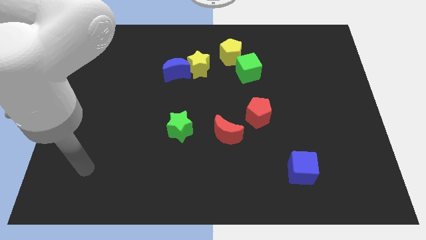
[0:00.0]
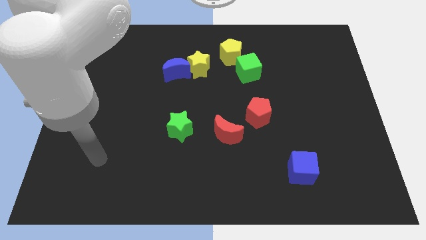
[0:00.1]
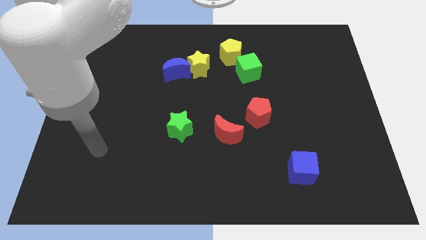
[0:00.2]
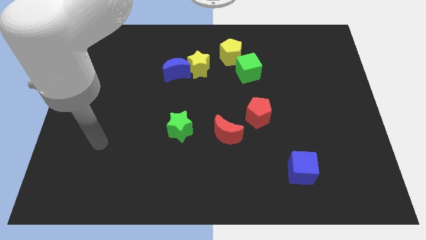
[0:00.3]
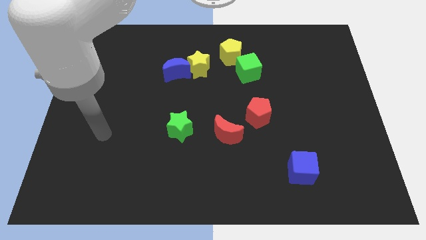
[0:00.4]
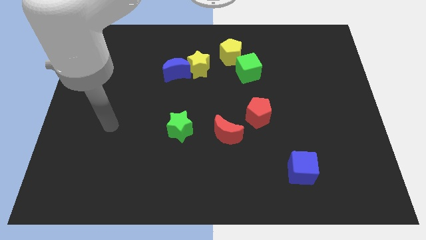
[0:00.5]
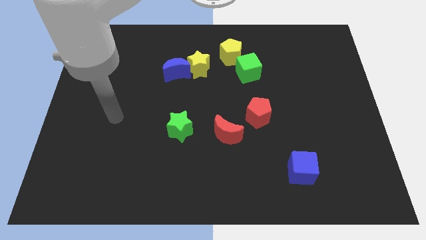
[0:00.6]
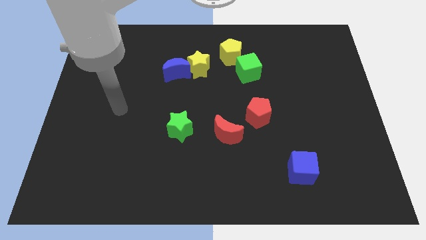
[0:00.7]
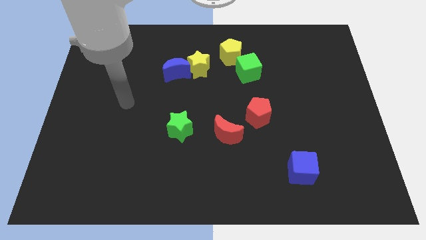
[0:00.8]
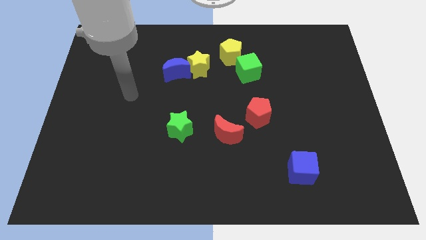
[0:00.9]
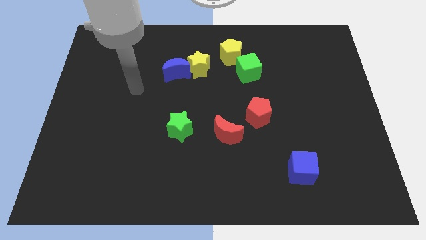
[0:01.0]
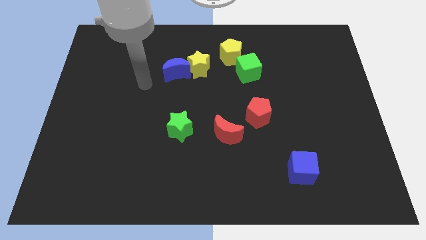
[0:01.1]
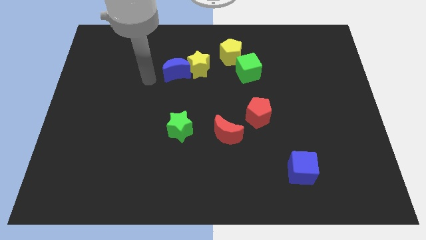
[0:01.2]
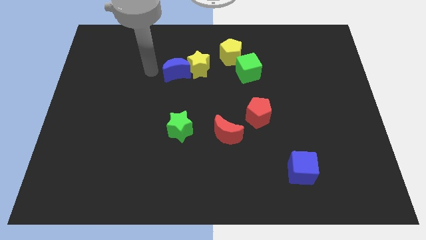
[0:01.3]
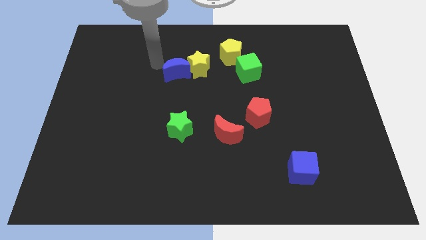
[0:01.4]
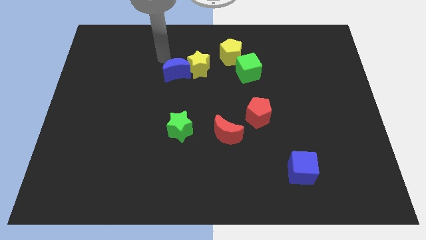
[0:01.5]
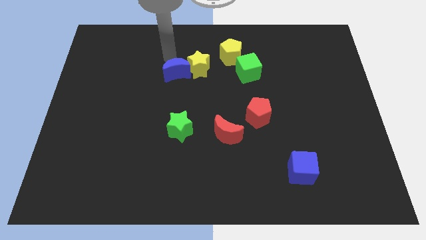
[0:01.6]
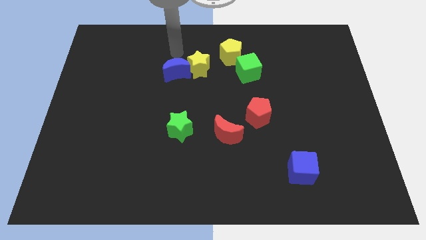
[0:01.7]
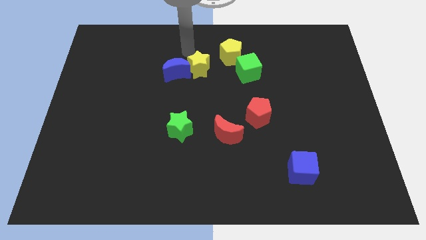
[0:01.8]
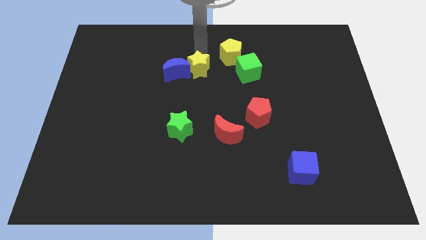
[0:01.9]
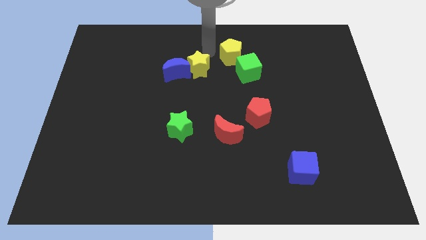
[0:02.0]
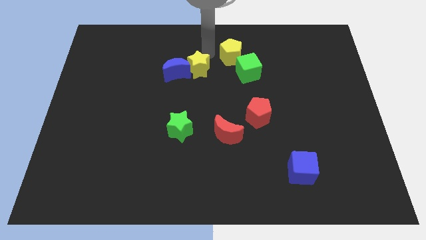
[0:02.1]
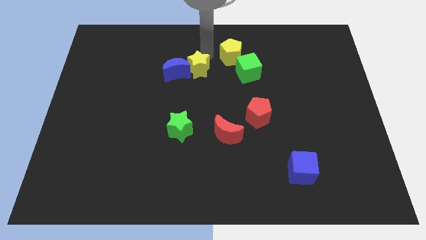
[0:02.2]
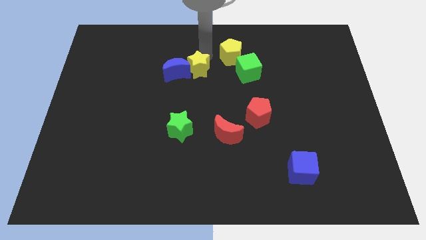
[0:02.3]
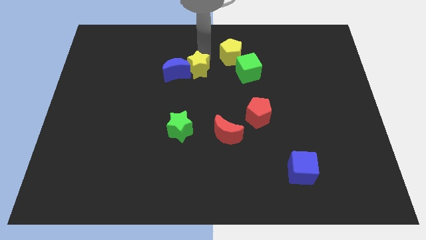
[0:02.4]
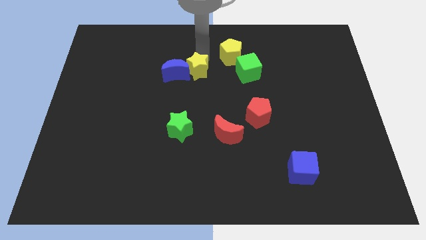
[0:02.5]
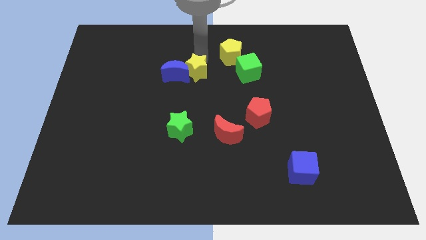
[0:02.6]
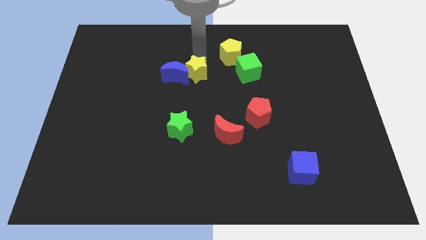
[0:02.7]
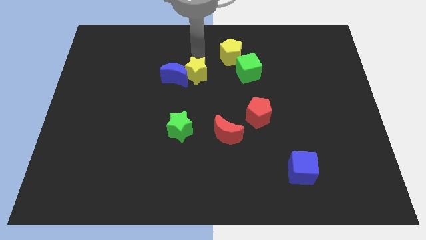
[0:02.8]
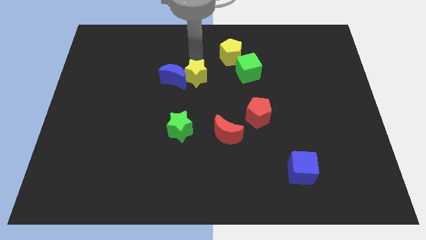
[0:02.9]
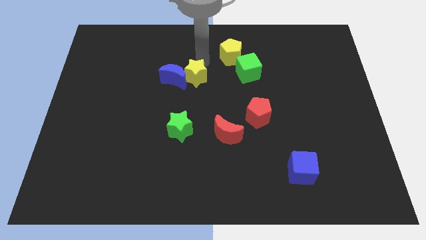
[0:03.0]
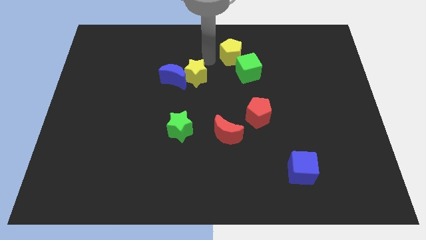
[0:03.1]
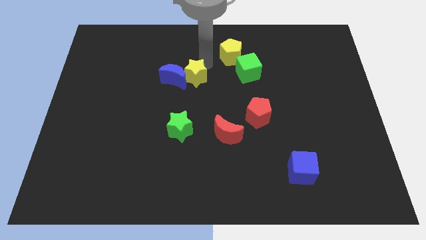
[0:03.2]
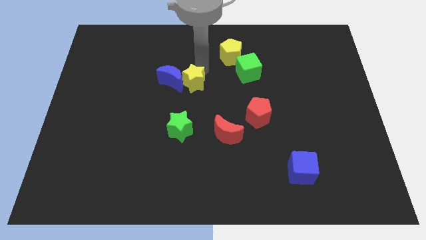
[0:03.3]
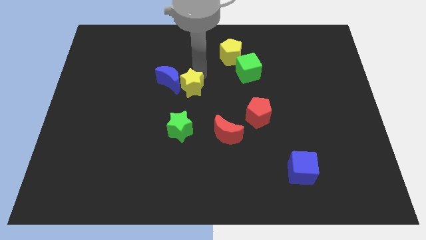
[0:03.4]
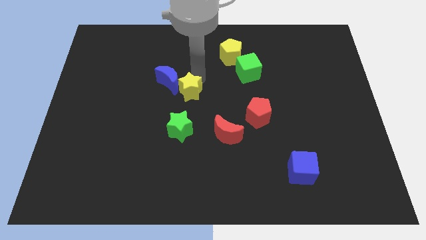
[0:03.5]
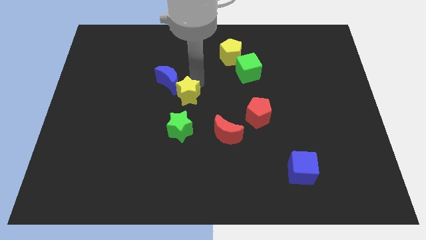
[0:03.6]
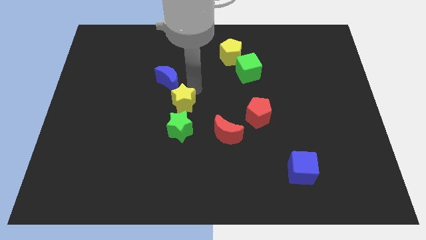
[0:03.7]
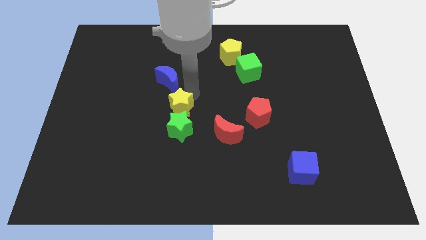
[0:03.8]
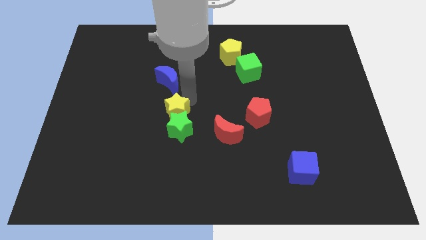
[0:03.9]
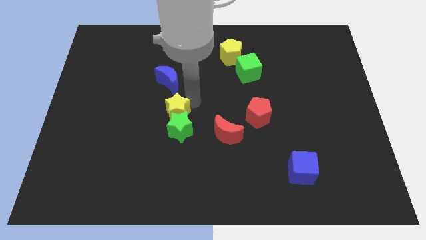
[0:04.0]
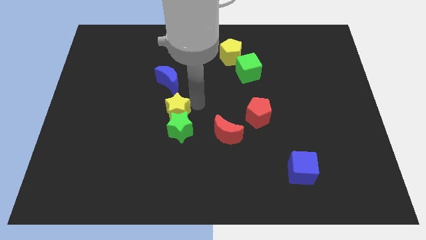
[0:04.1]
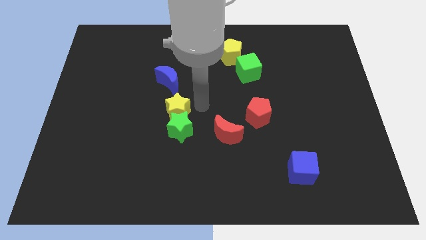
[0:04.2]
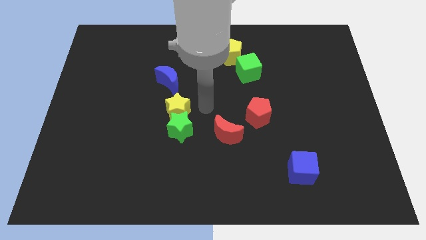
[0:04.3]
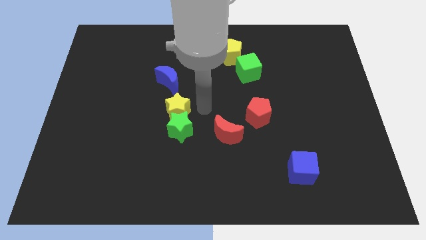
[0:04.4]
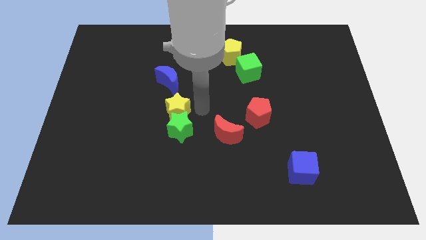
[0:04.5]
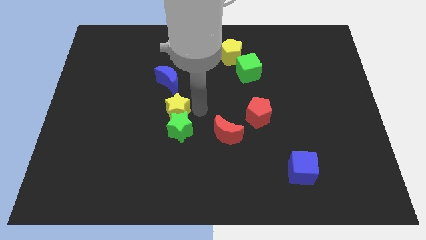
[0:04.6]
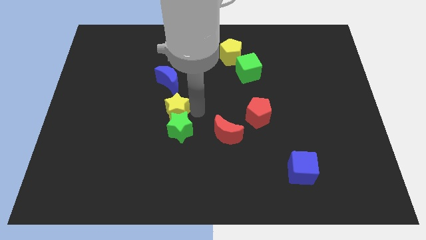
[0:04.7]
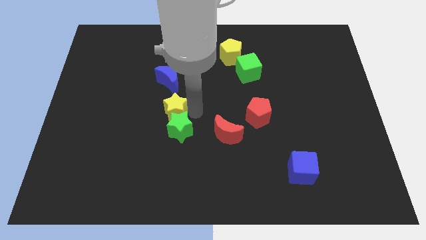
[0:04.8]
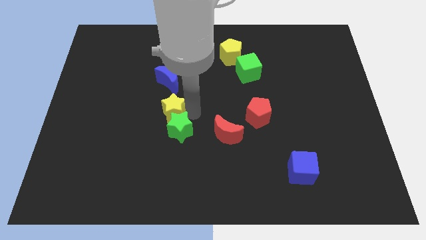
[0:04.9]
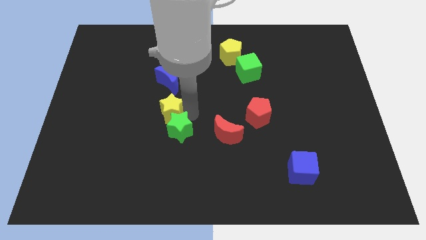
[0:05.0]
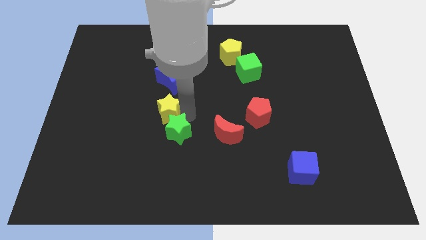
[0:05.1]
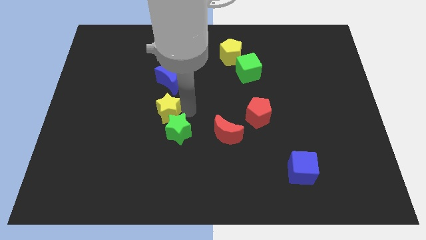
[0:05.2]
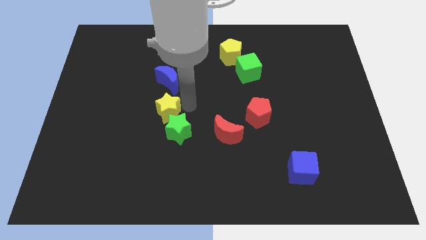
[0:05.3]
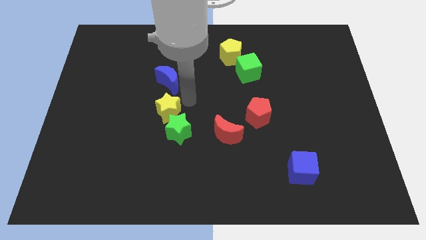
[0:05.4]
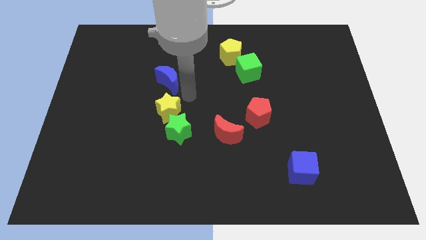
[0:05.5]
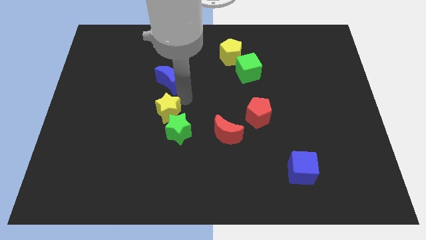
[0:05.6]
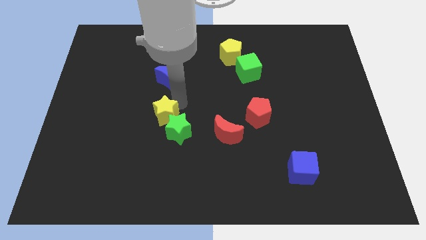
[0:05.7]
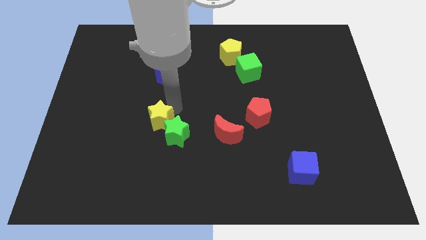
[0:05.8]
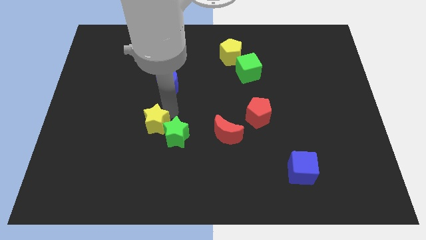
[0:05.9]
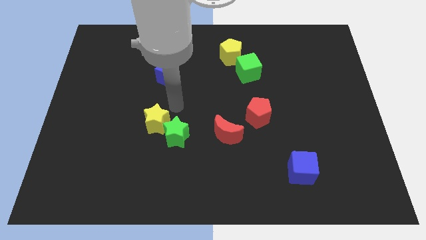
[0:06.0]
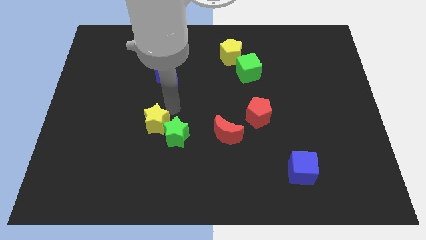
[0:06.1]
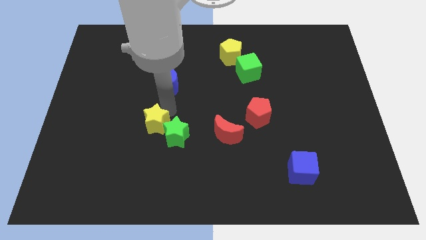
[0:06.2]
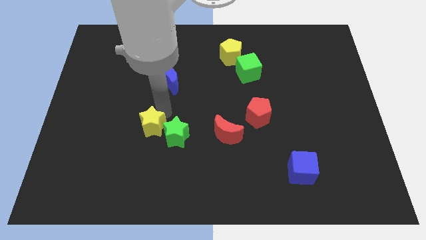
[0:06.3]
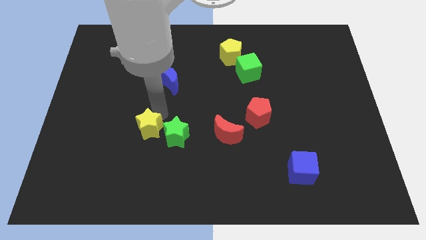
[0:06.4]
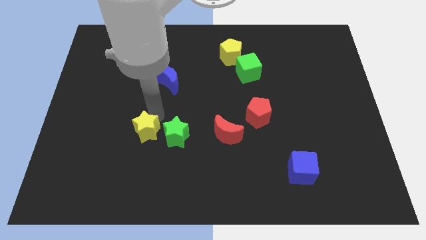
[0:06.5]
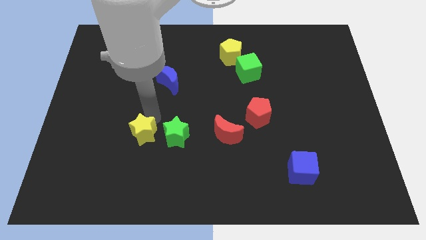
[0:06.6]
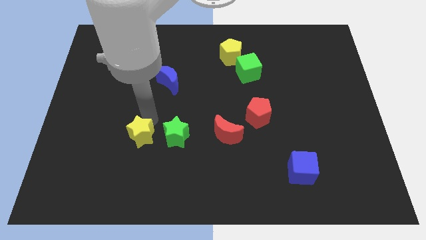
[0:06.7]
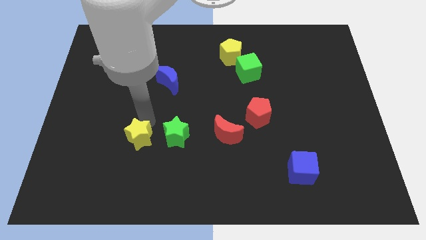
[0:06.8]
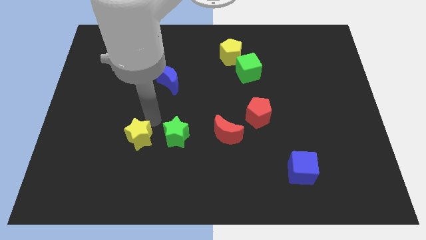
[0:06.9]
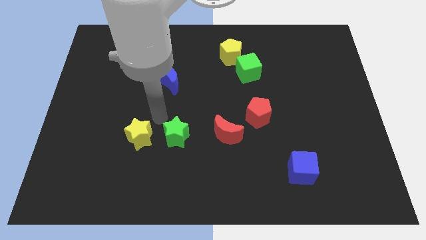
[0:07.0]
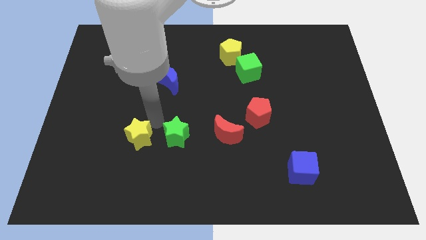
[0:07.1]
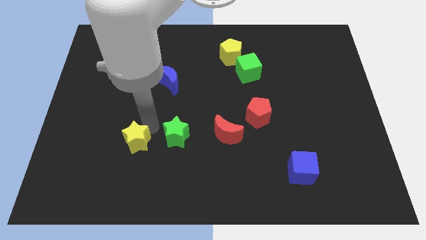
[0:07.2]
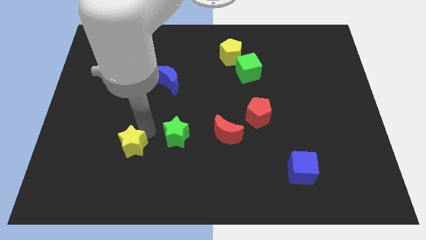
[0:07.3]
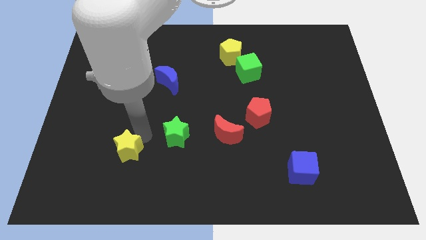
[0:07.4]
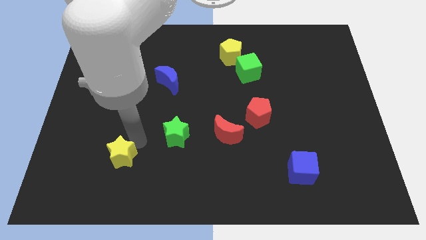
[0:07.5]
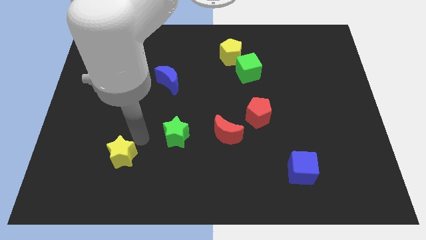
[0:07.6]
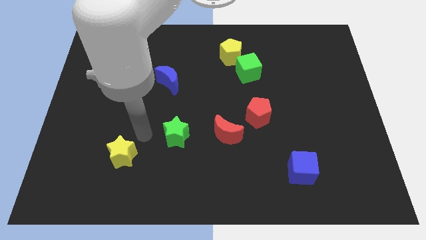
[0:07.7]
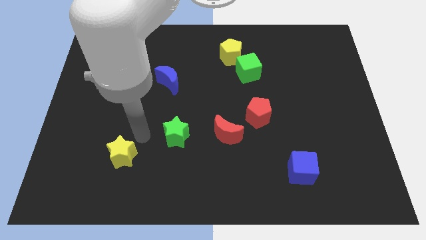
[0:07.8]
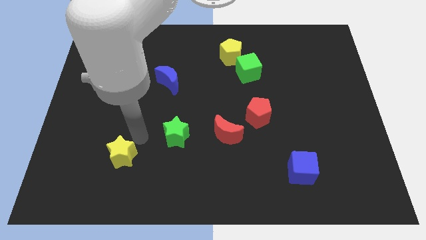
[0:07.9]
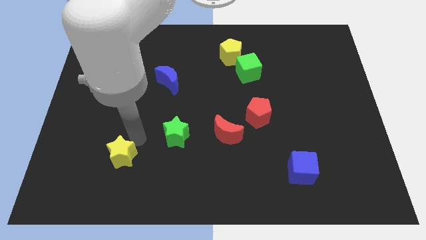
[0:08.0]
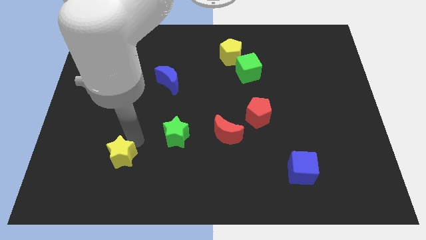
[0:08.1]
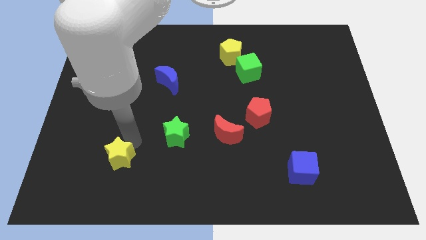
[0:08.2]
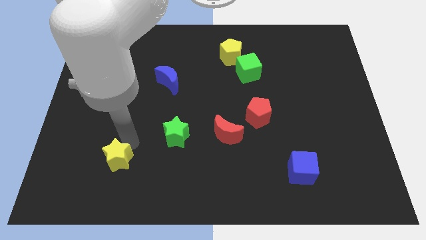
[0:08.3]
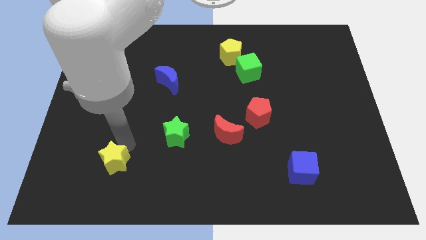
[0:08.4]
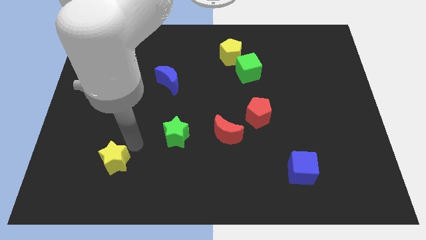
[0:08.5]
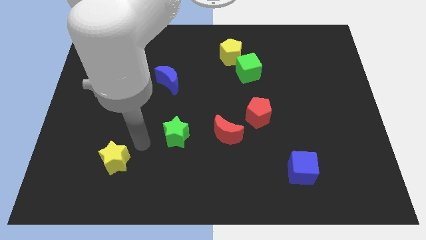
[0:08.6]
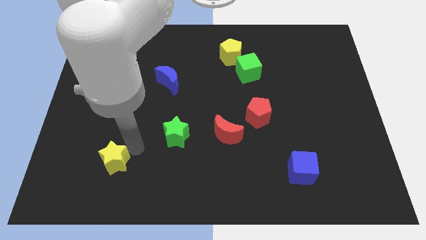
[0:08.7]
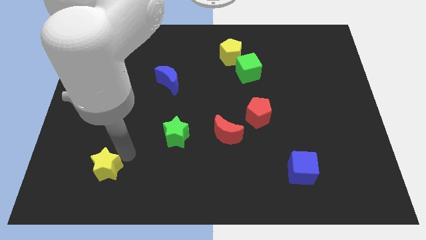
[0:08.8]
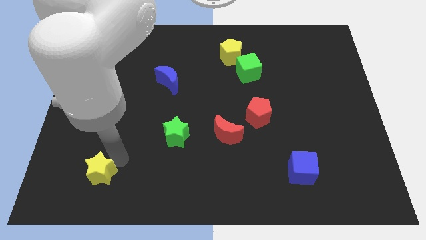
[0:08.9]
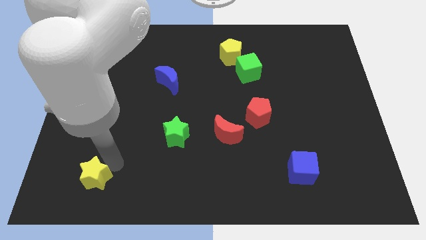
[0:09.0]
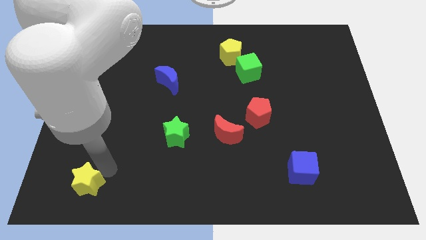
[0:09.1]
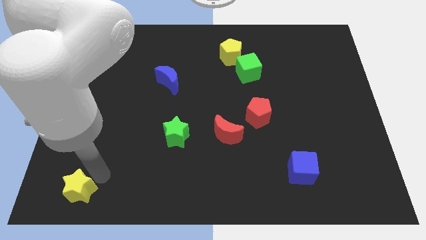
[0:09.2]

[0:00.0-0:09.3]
push the yellow star to the bottom left corner
